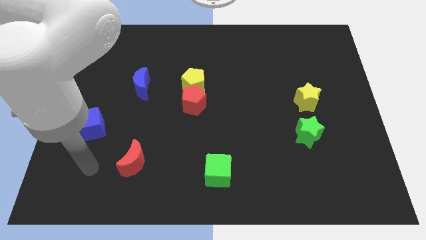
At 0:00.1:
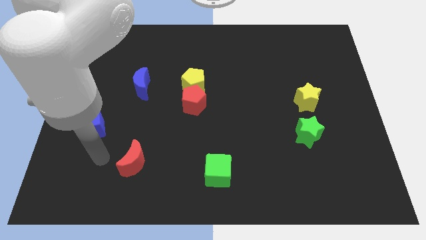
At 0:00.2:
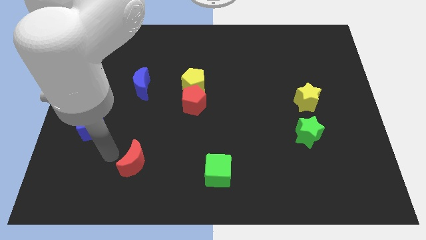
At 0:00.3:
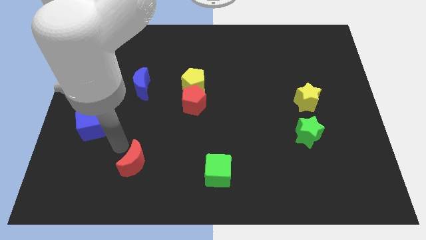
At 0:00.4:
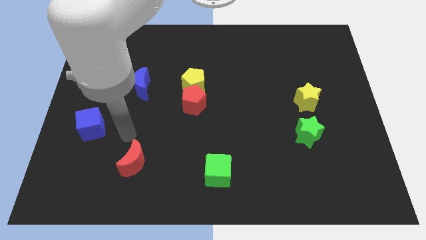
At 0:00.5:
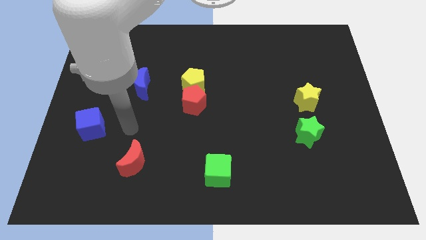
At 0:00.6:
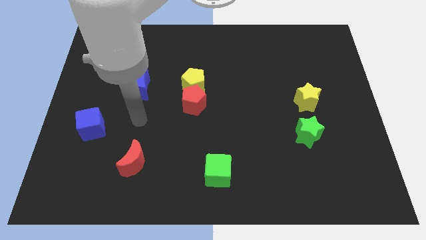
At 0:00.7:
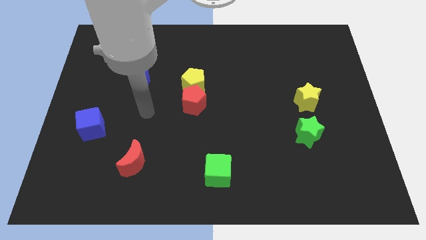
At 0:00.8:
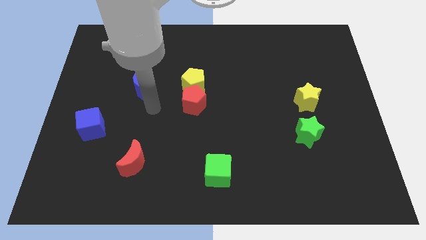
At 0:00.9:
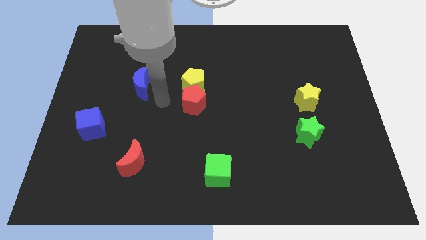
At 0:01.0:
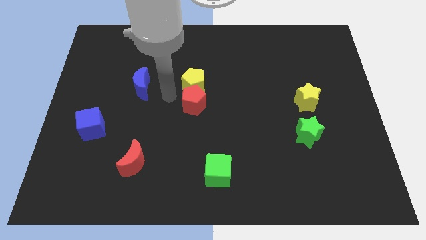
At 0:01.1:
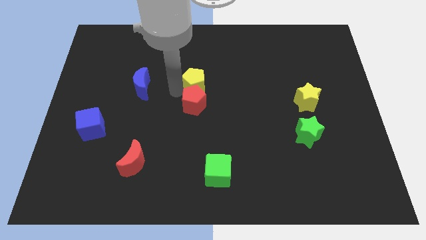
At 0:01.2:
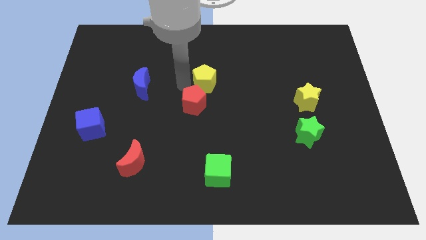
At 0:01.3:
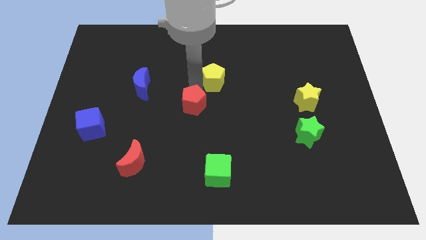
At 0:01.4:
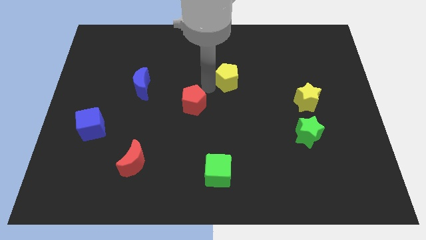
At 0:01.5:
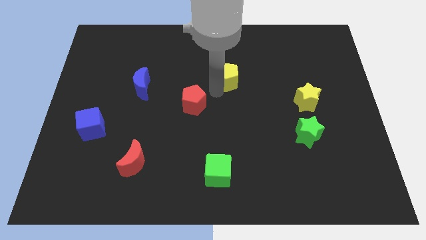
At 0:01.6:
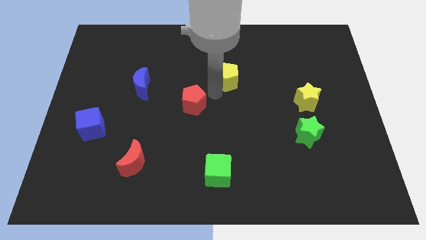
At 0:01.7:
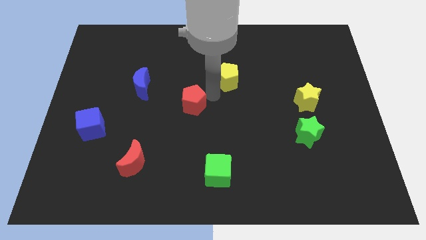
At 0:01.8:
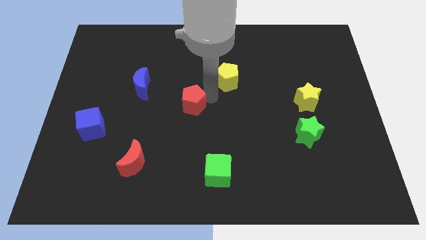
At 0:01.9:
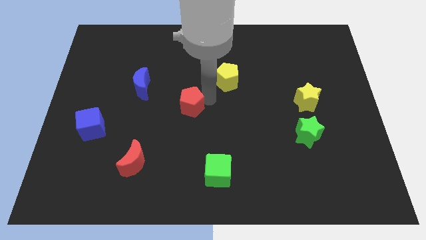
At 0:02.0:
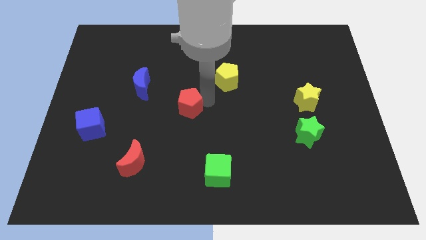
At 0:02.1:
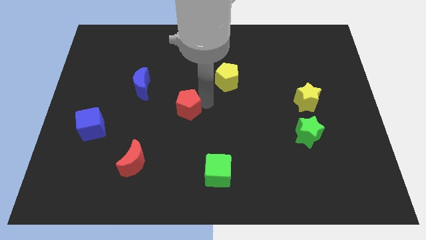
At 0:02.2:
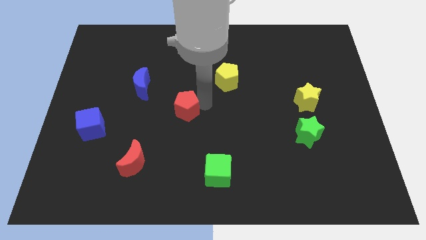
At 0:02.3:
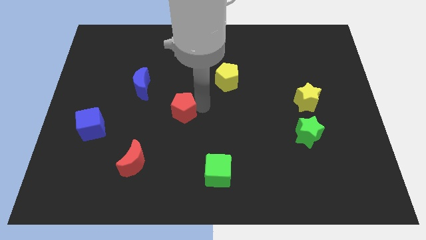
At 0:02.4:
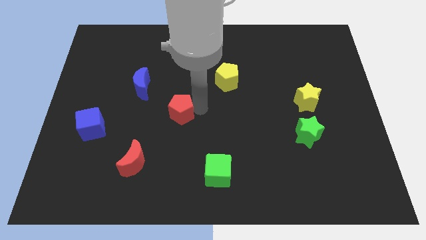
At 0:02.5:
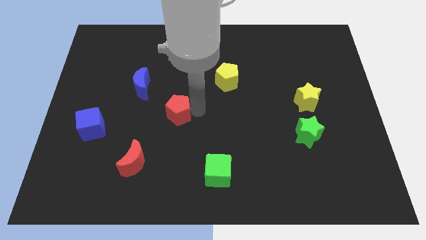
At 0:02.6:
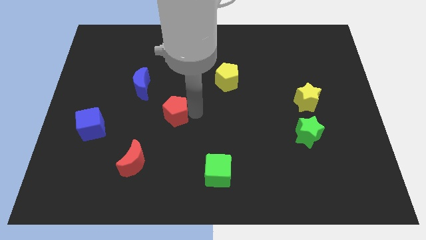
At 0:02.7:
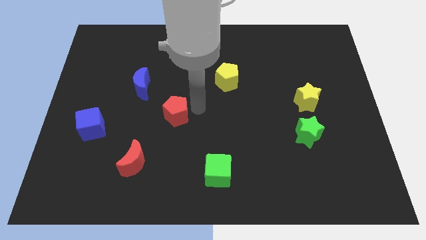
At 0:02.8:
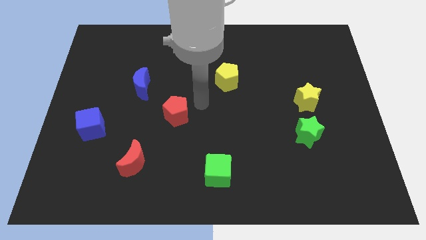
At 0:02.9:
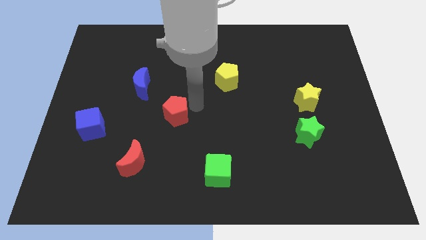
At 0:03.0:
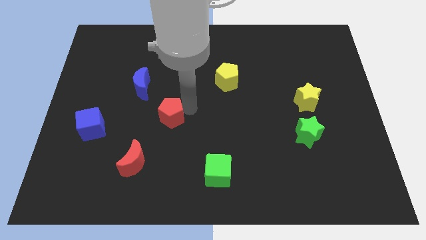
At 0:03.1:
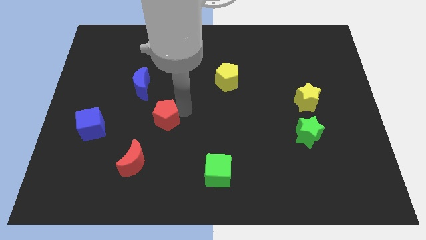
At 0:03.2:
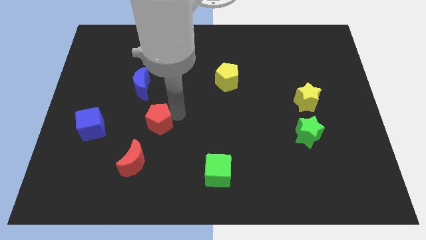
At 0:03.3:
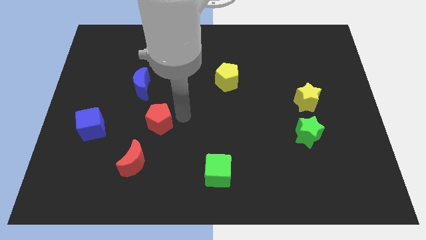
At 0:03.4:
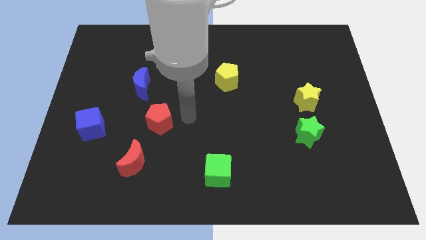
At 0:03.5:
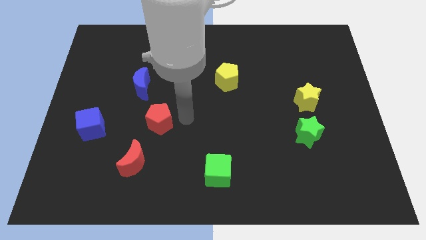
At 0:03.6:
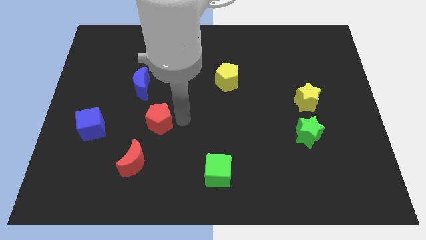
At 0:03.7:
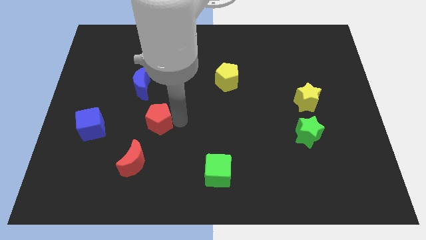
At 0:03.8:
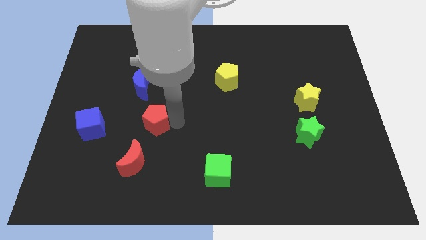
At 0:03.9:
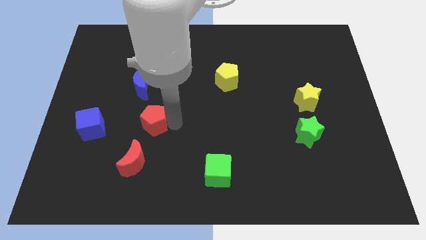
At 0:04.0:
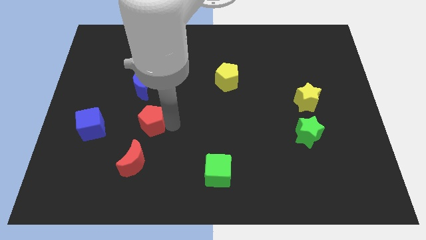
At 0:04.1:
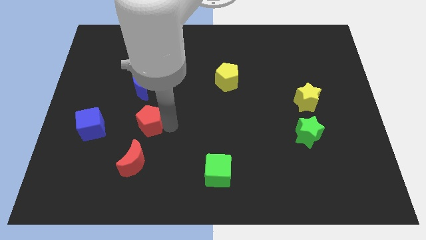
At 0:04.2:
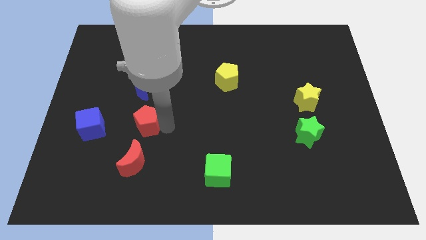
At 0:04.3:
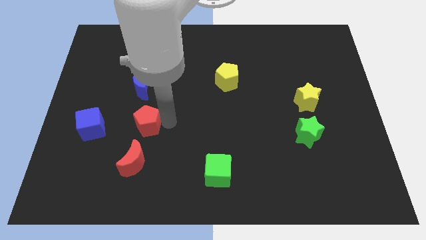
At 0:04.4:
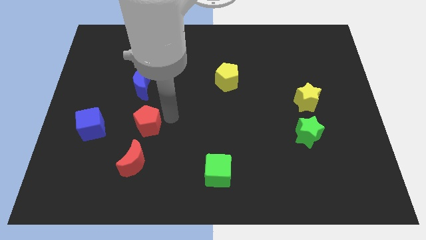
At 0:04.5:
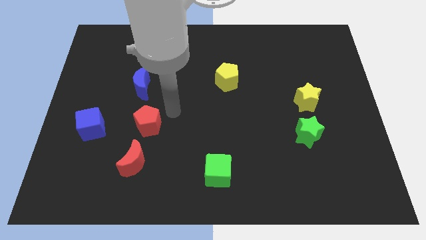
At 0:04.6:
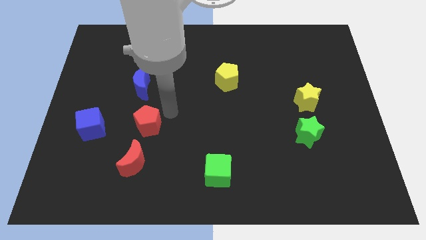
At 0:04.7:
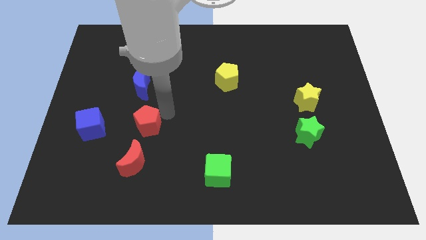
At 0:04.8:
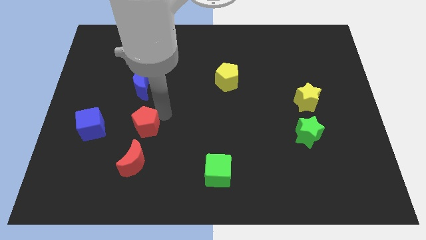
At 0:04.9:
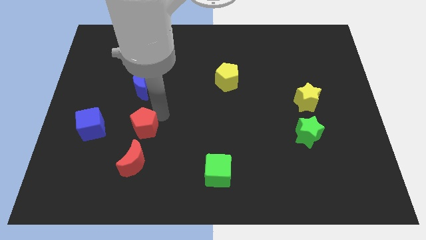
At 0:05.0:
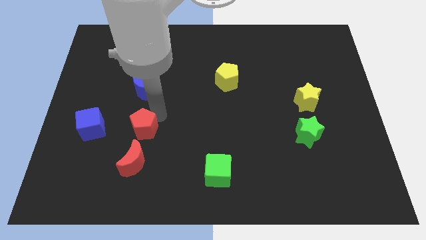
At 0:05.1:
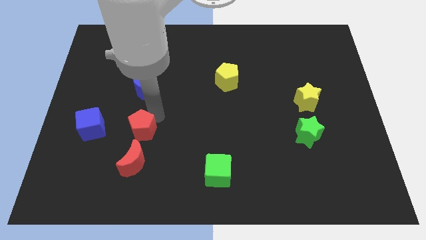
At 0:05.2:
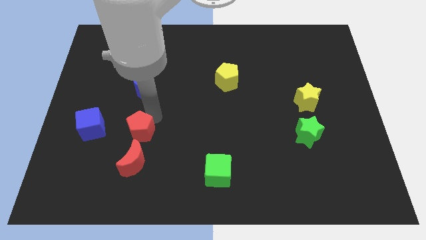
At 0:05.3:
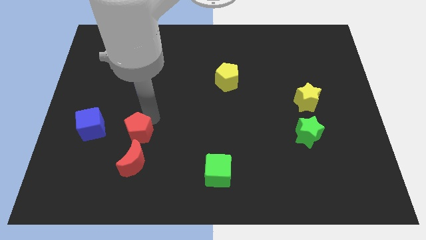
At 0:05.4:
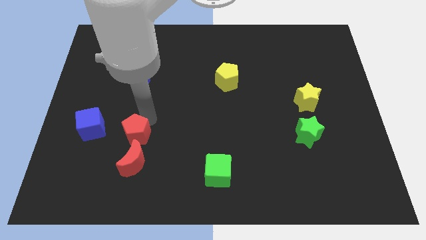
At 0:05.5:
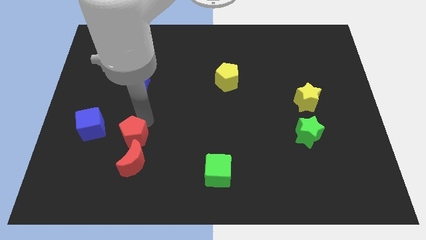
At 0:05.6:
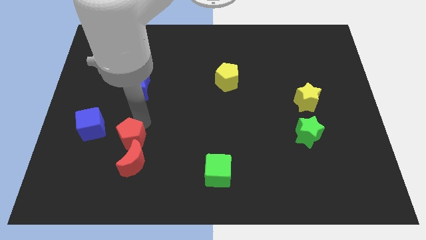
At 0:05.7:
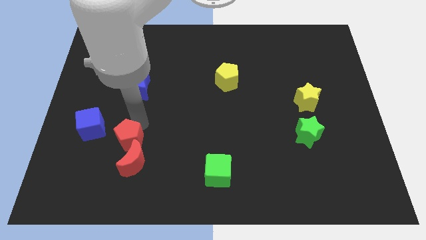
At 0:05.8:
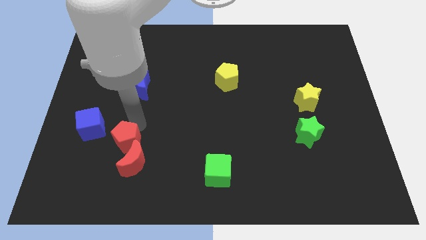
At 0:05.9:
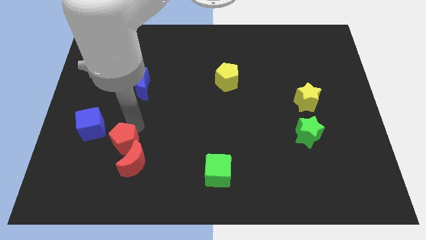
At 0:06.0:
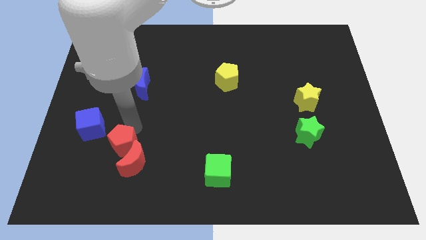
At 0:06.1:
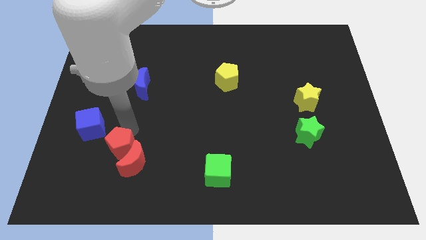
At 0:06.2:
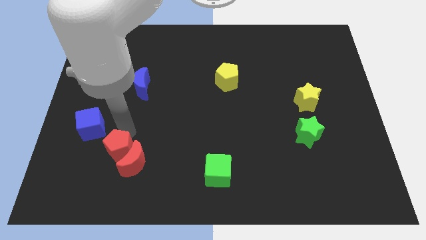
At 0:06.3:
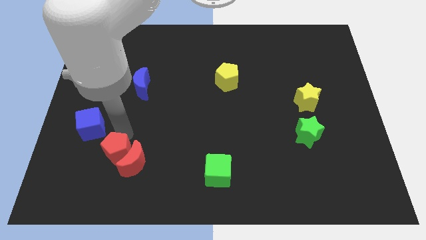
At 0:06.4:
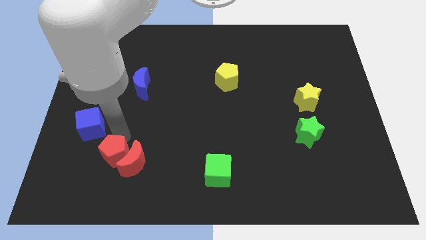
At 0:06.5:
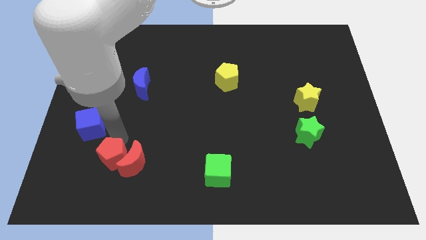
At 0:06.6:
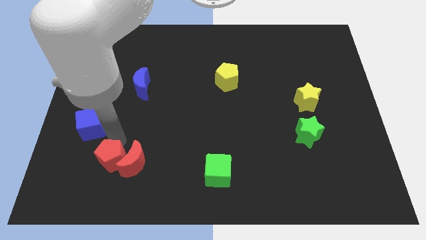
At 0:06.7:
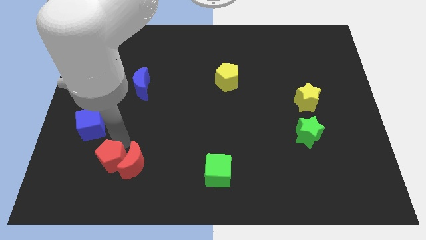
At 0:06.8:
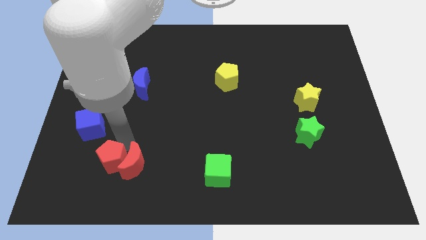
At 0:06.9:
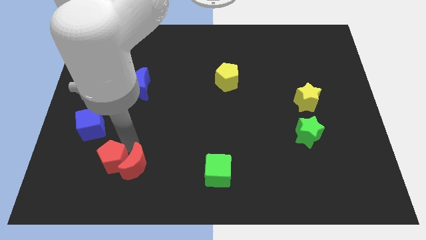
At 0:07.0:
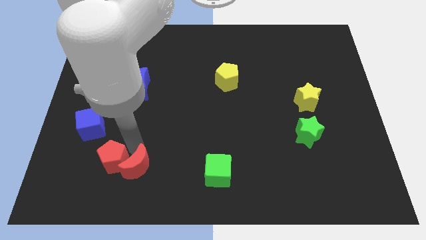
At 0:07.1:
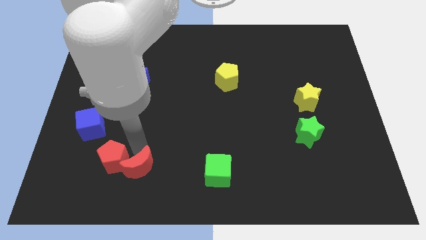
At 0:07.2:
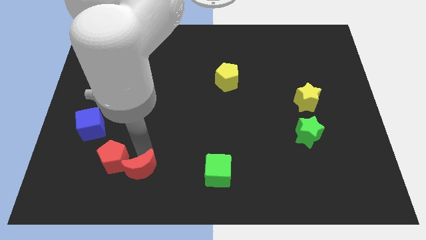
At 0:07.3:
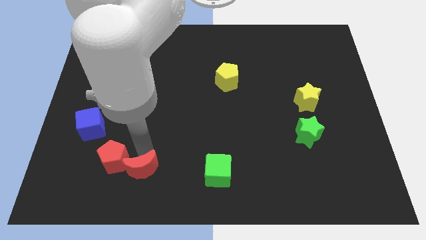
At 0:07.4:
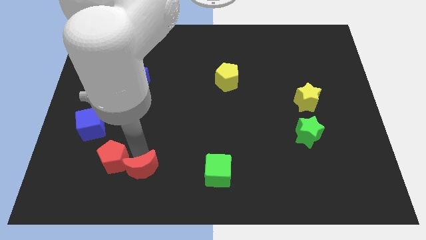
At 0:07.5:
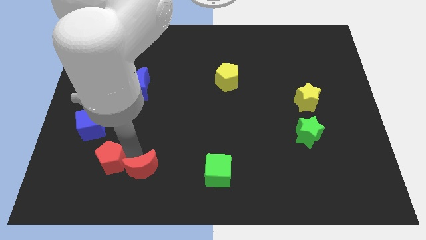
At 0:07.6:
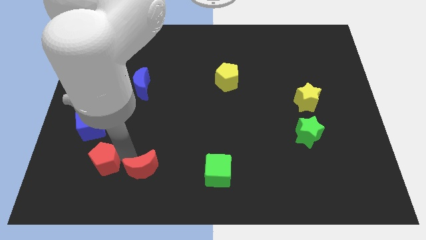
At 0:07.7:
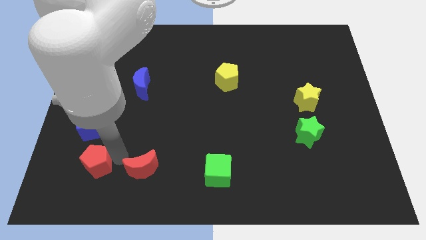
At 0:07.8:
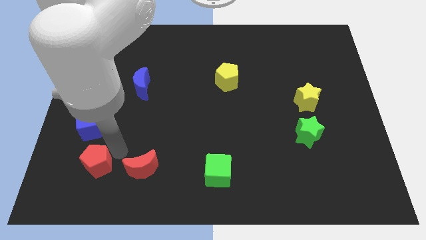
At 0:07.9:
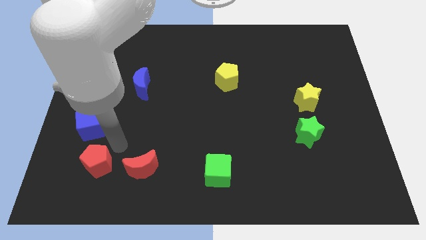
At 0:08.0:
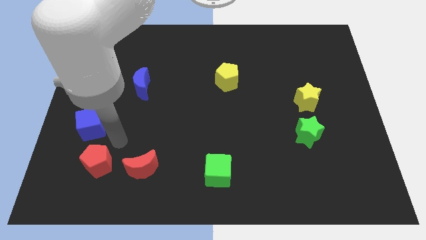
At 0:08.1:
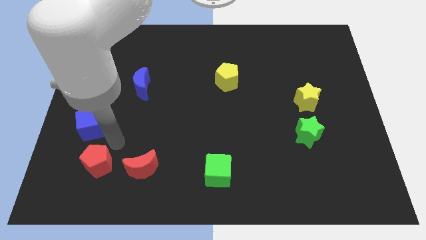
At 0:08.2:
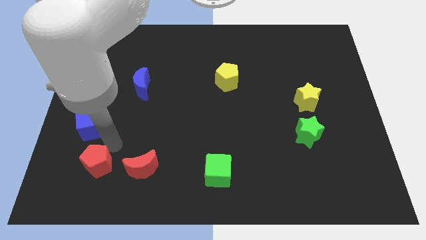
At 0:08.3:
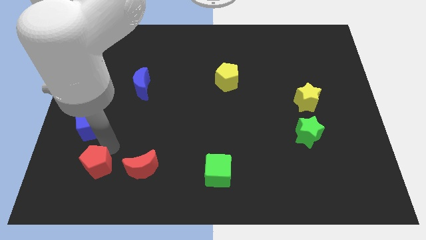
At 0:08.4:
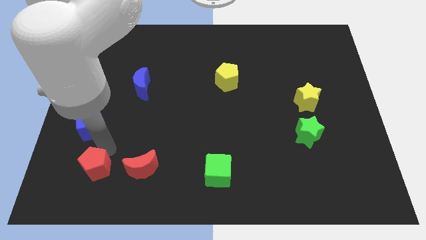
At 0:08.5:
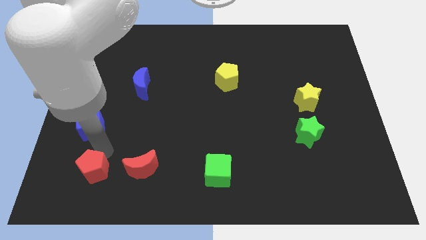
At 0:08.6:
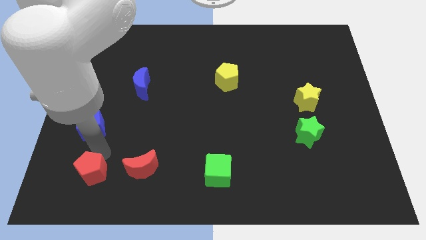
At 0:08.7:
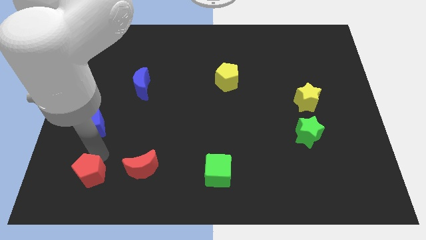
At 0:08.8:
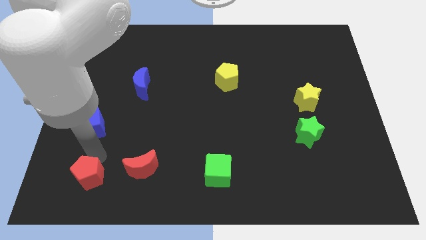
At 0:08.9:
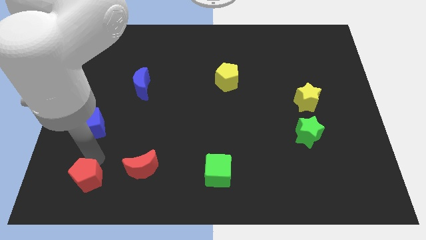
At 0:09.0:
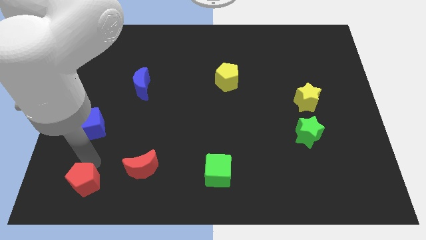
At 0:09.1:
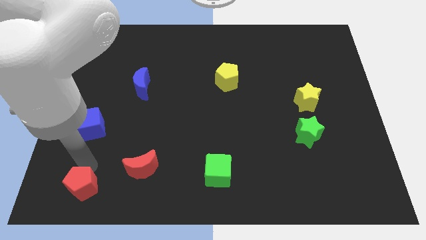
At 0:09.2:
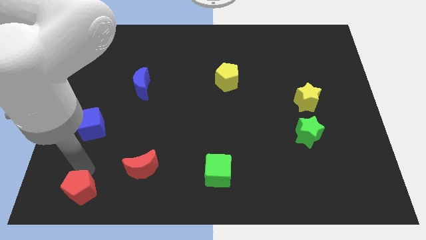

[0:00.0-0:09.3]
slide the red pentagon to the lower left corner
